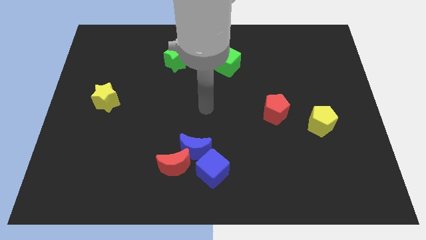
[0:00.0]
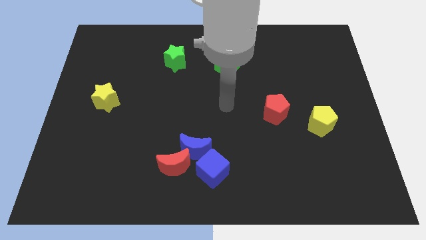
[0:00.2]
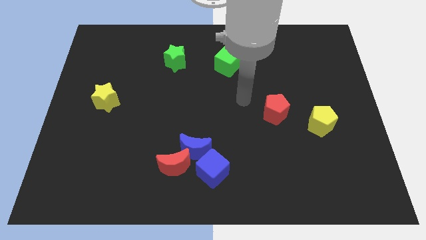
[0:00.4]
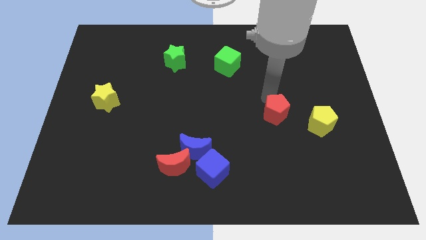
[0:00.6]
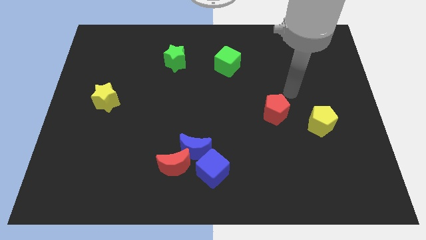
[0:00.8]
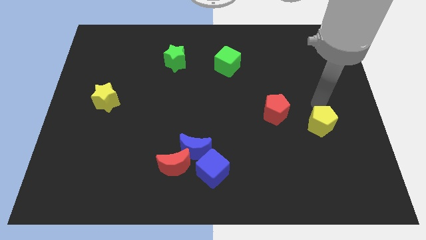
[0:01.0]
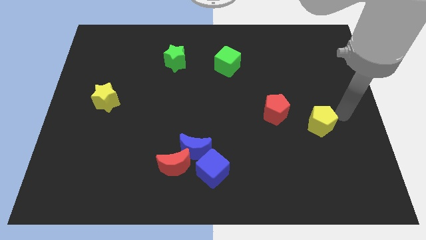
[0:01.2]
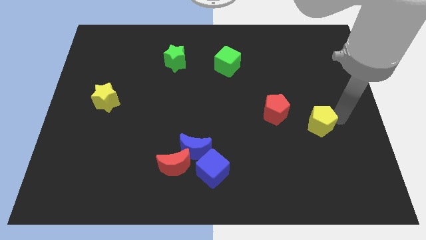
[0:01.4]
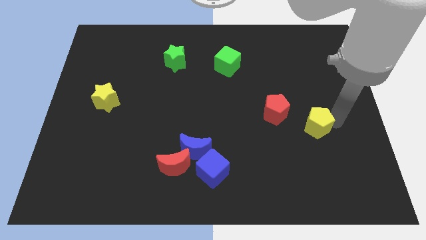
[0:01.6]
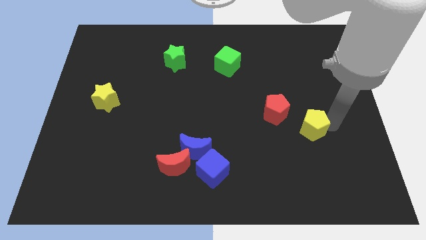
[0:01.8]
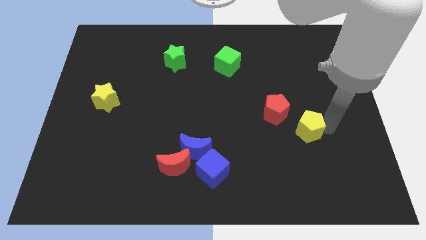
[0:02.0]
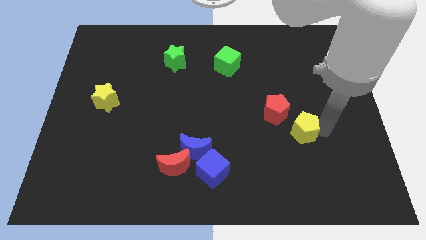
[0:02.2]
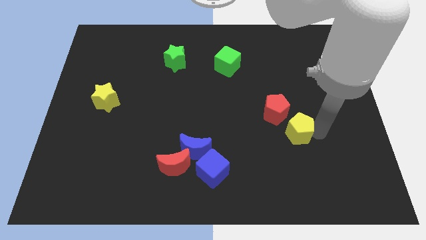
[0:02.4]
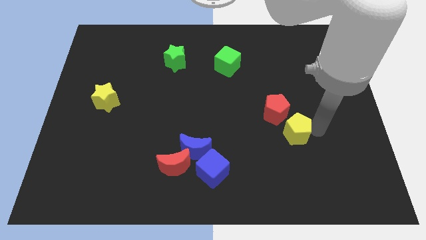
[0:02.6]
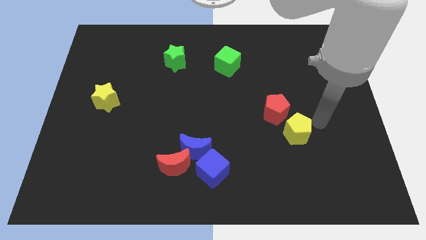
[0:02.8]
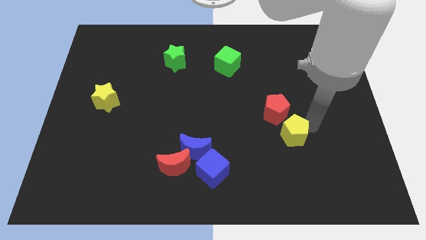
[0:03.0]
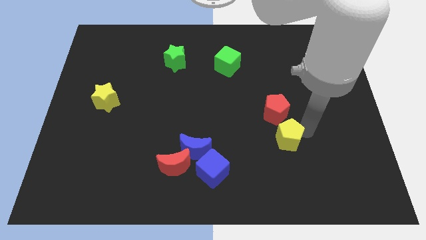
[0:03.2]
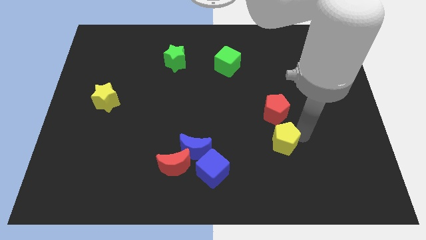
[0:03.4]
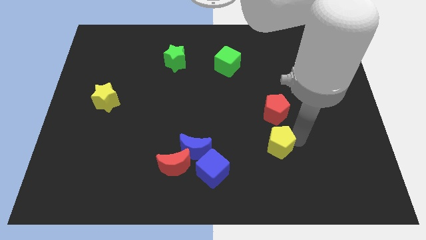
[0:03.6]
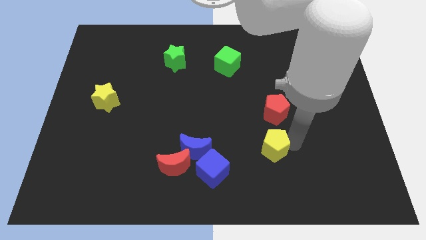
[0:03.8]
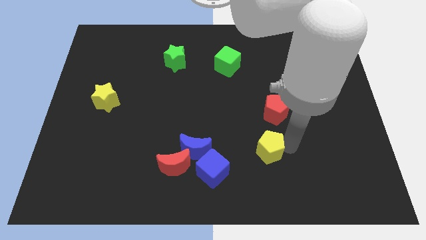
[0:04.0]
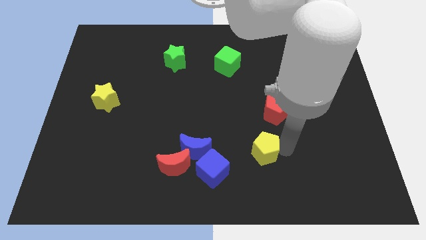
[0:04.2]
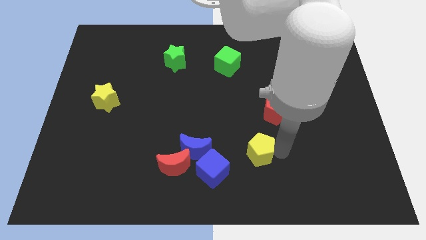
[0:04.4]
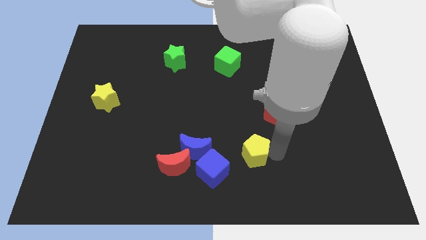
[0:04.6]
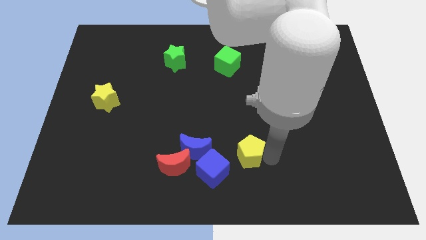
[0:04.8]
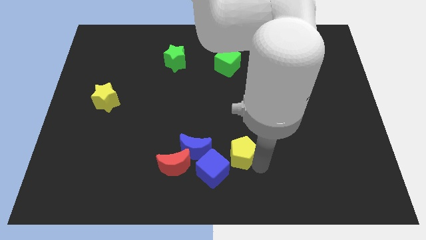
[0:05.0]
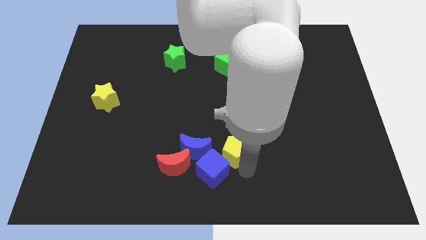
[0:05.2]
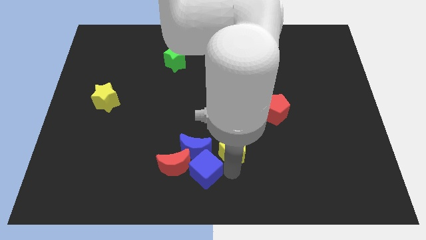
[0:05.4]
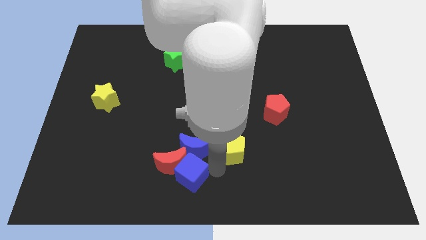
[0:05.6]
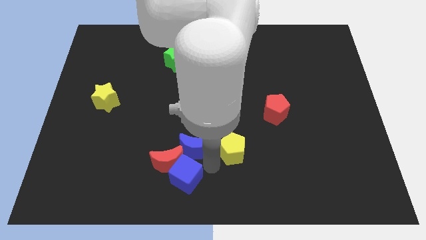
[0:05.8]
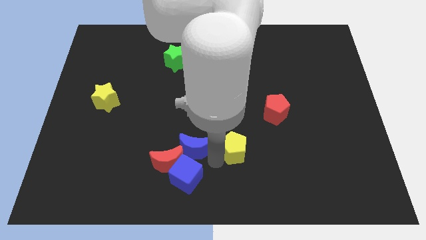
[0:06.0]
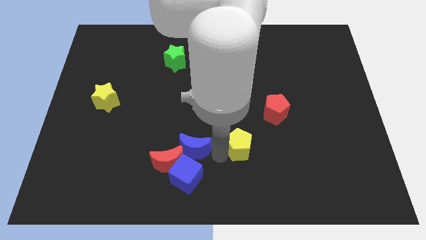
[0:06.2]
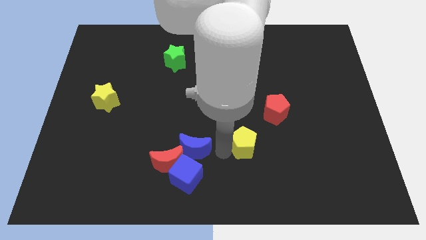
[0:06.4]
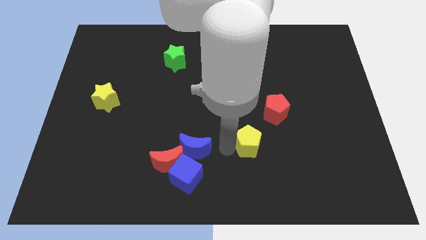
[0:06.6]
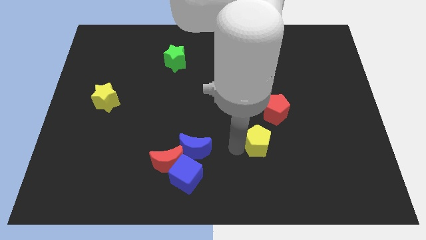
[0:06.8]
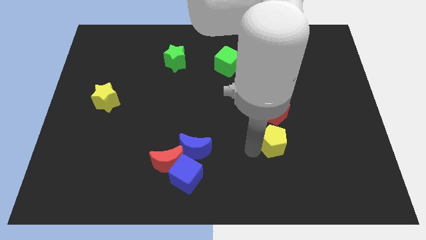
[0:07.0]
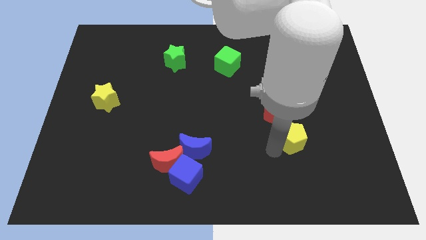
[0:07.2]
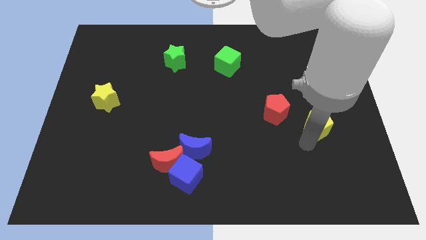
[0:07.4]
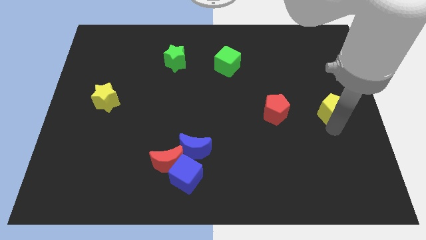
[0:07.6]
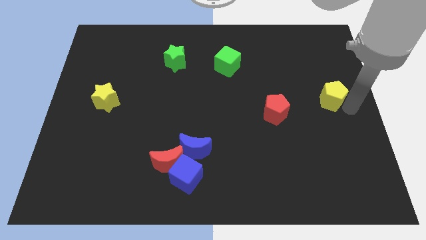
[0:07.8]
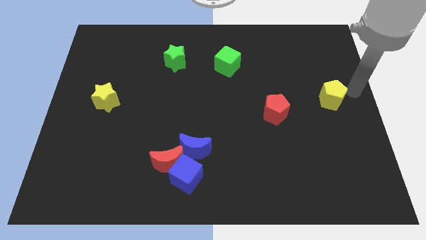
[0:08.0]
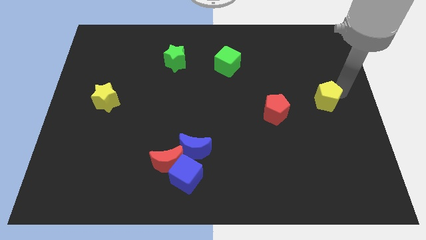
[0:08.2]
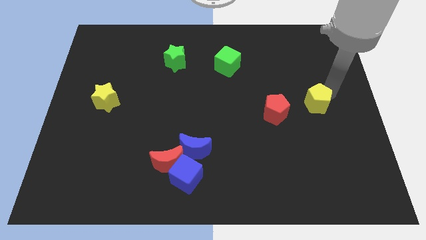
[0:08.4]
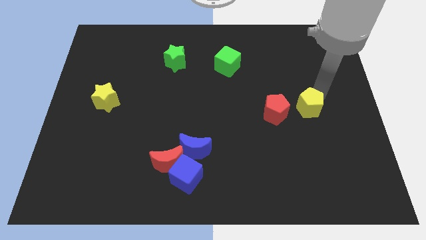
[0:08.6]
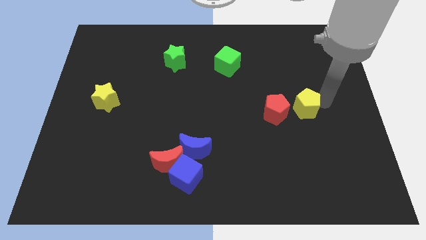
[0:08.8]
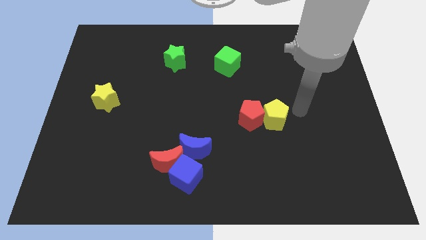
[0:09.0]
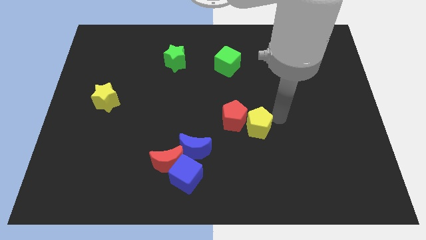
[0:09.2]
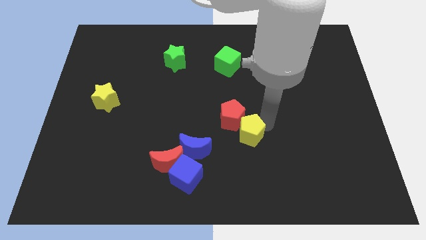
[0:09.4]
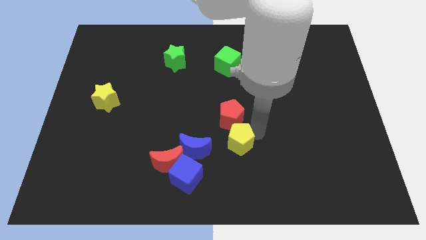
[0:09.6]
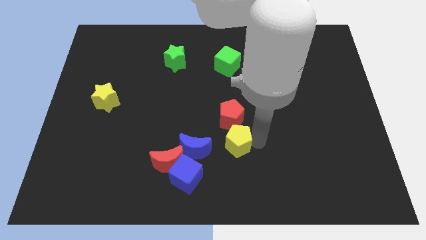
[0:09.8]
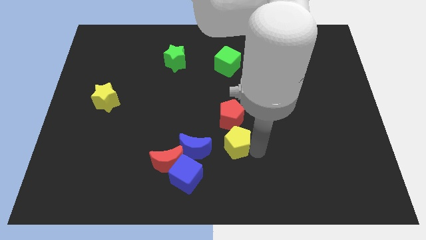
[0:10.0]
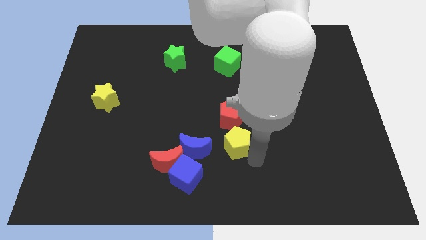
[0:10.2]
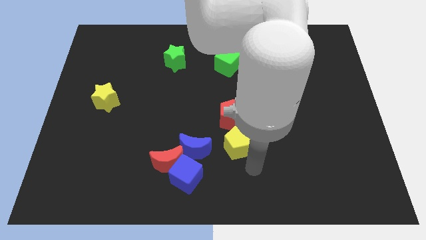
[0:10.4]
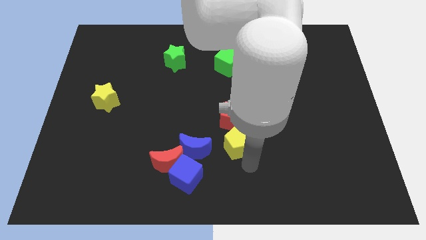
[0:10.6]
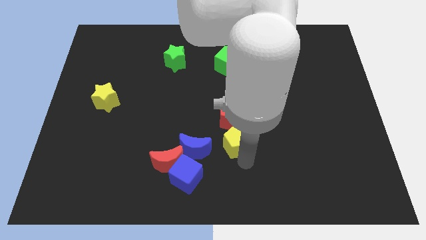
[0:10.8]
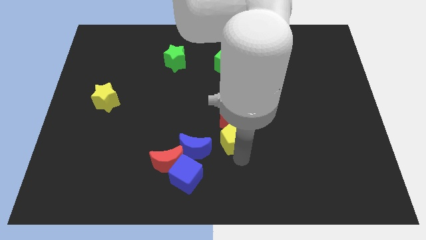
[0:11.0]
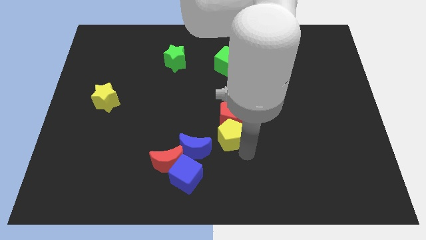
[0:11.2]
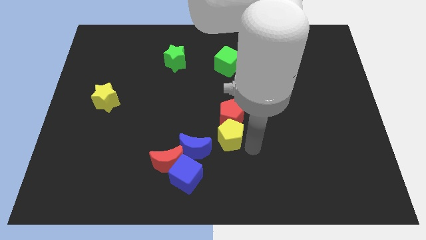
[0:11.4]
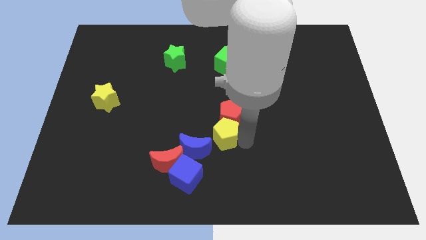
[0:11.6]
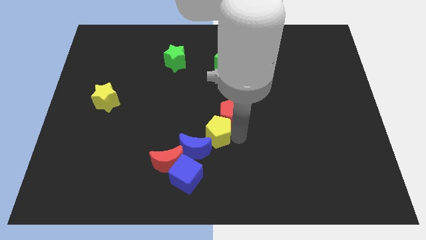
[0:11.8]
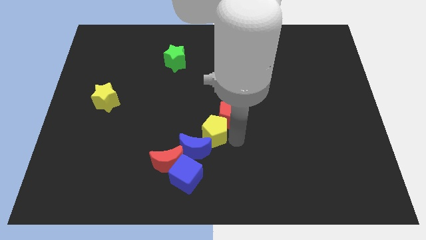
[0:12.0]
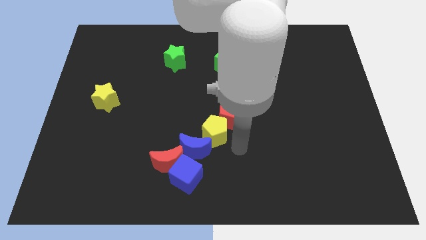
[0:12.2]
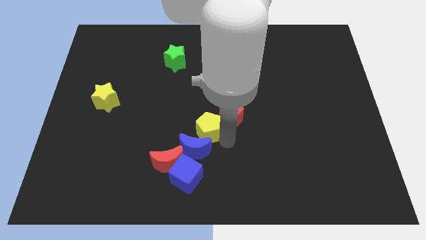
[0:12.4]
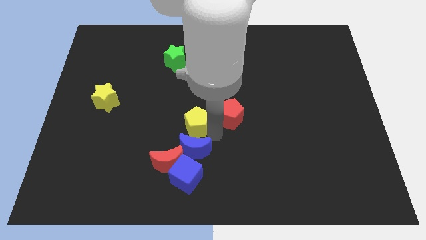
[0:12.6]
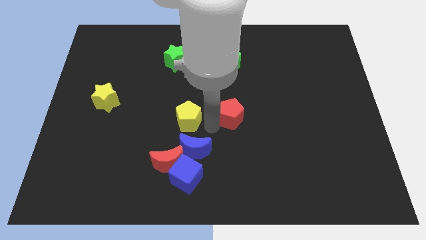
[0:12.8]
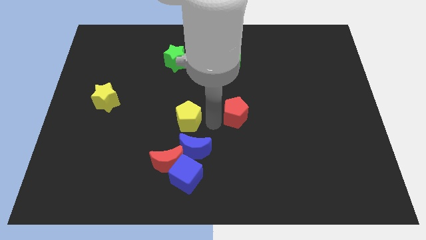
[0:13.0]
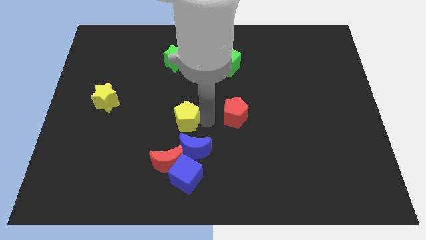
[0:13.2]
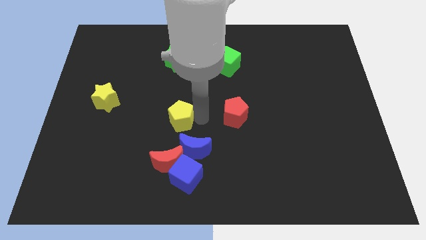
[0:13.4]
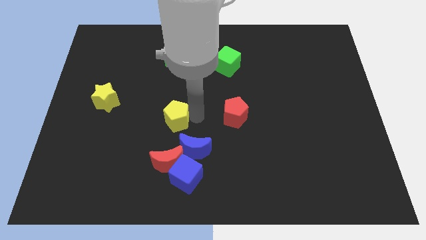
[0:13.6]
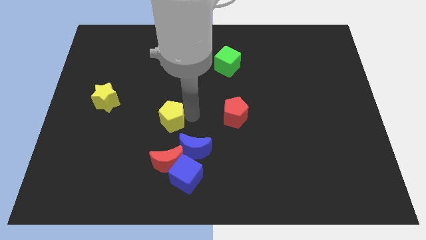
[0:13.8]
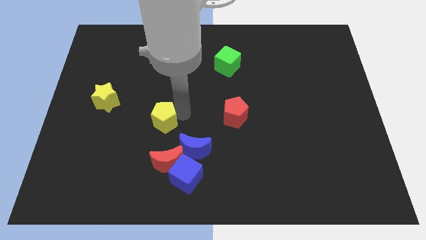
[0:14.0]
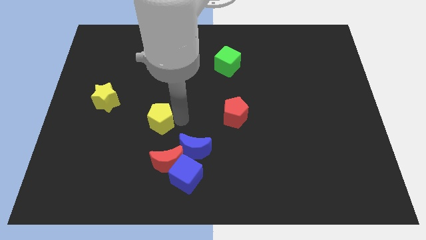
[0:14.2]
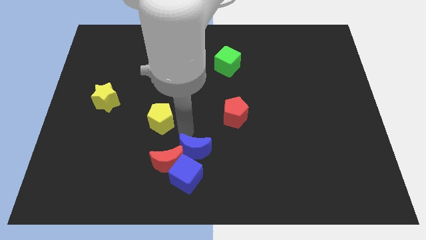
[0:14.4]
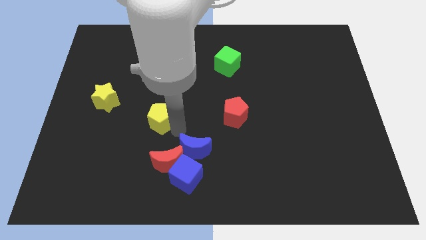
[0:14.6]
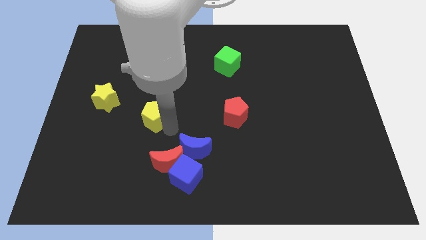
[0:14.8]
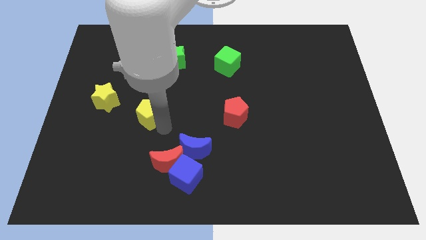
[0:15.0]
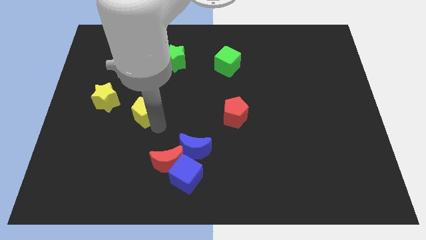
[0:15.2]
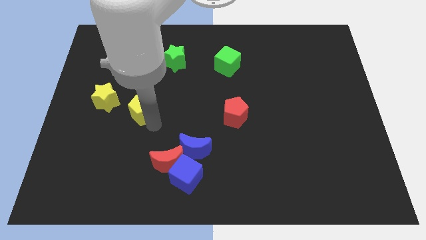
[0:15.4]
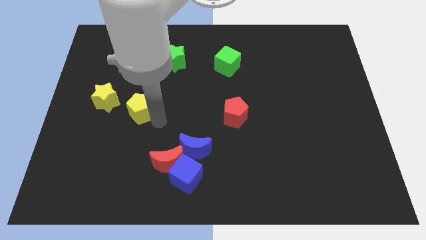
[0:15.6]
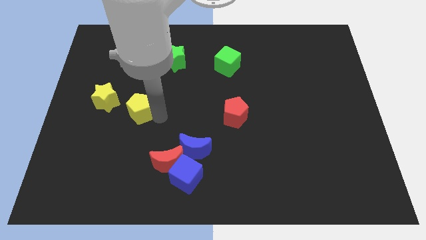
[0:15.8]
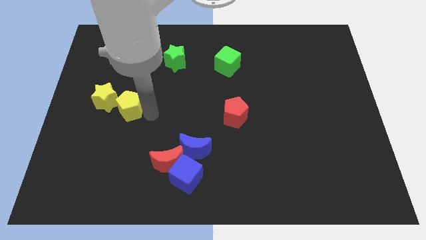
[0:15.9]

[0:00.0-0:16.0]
put the yellow pentagon close to the yellow star
